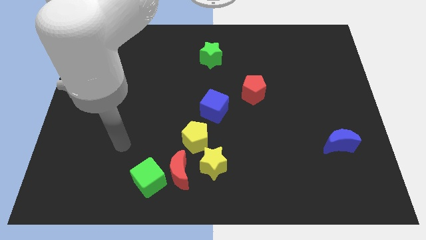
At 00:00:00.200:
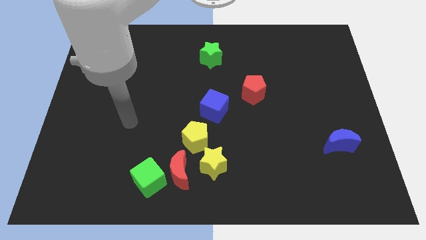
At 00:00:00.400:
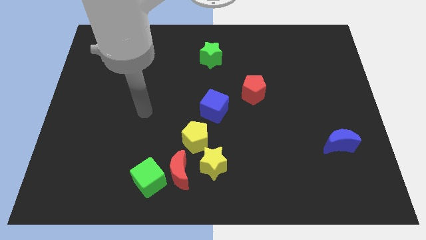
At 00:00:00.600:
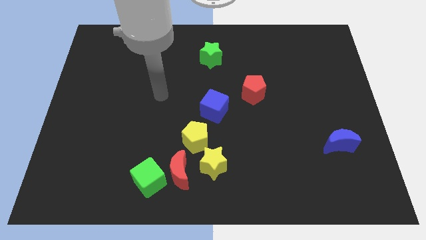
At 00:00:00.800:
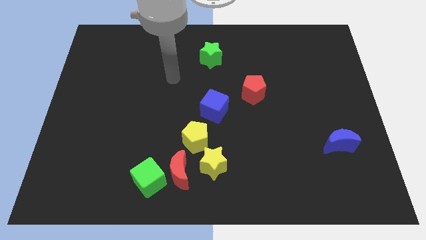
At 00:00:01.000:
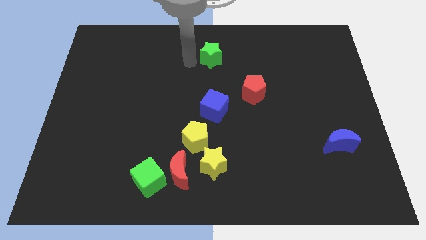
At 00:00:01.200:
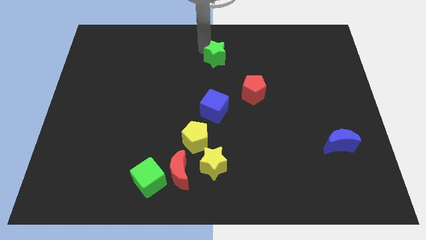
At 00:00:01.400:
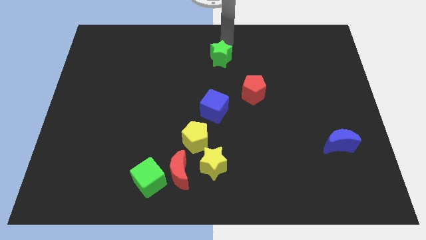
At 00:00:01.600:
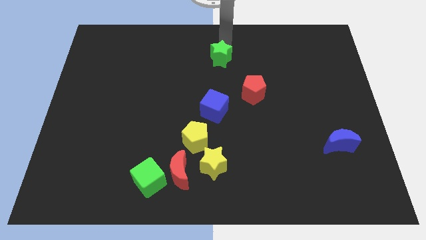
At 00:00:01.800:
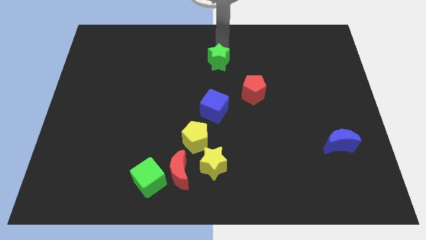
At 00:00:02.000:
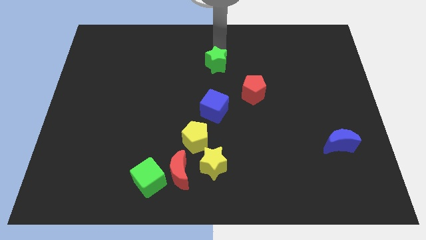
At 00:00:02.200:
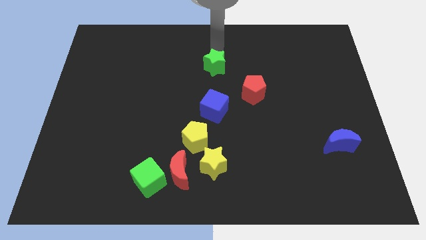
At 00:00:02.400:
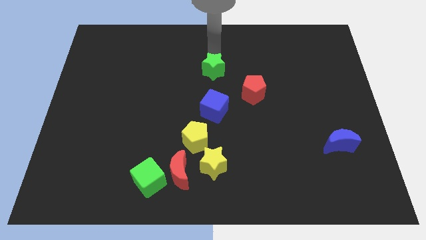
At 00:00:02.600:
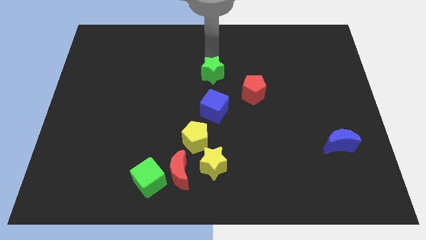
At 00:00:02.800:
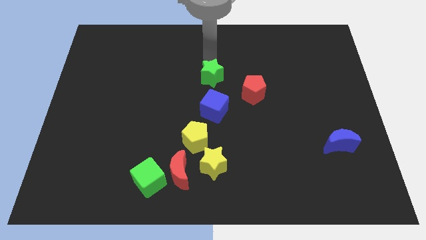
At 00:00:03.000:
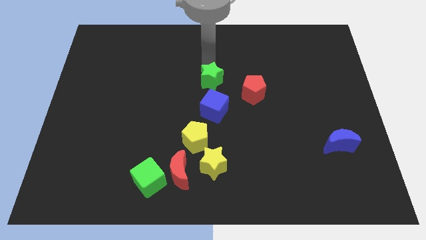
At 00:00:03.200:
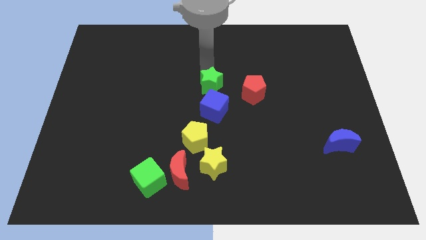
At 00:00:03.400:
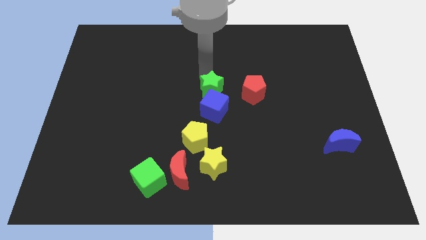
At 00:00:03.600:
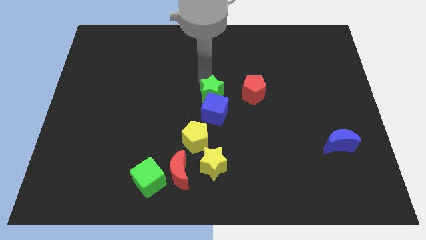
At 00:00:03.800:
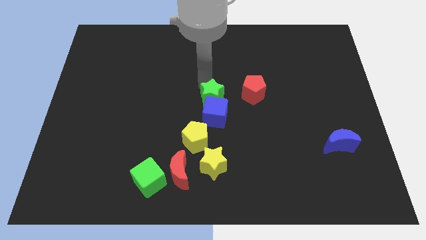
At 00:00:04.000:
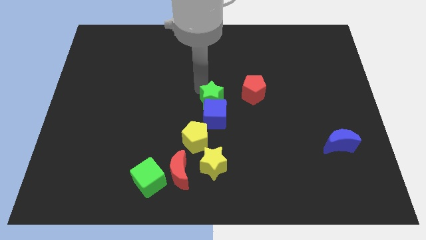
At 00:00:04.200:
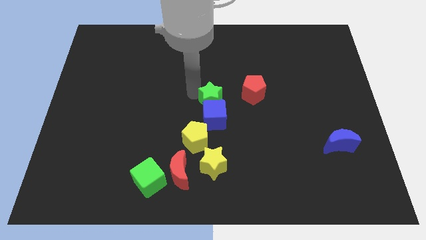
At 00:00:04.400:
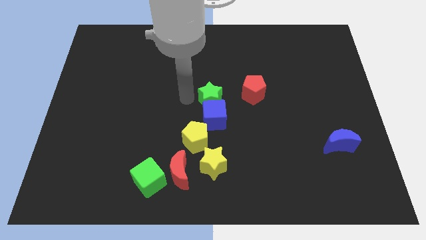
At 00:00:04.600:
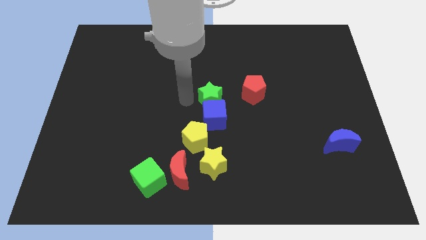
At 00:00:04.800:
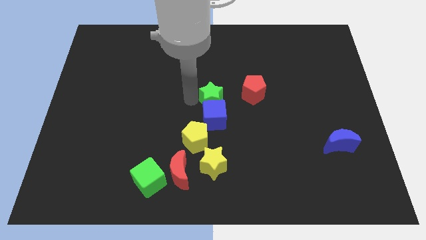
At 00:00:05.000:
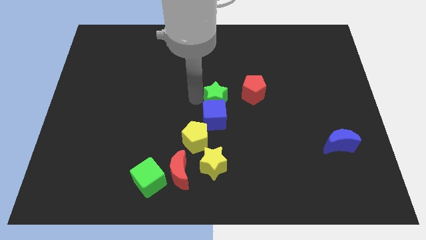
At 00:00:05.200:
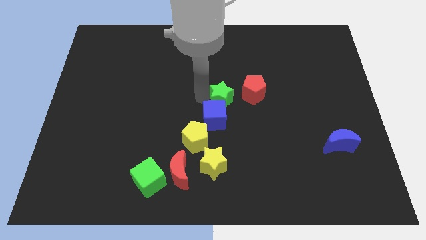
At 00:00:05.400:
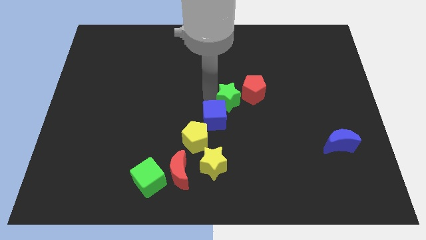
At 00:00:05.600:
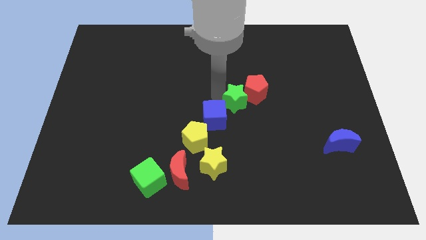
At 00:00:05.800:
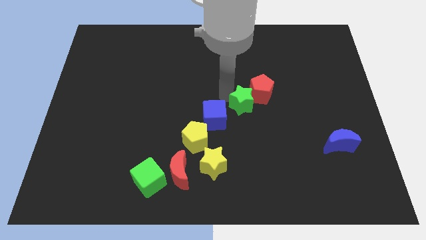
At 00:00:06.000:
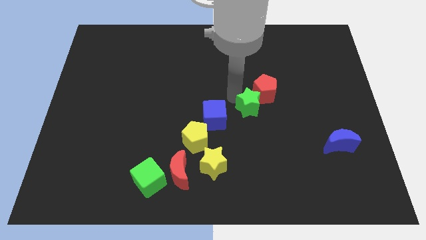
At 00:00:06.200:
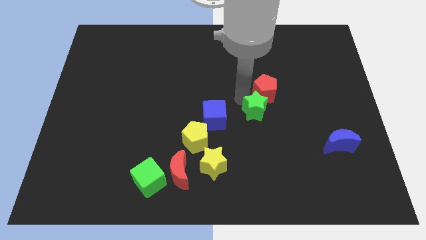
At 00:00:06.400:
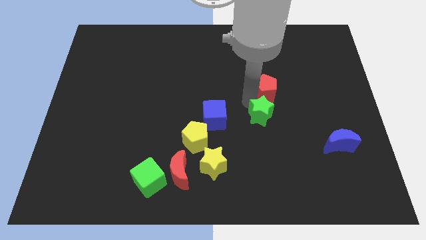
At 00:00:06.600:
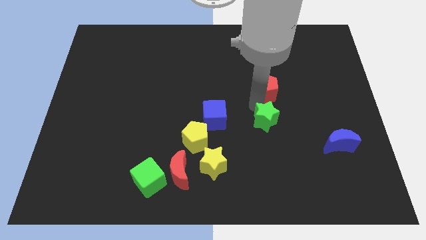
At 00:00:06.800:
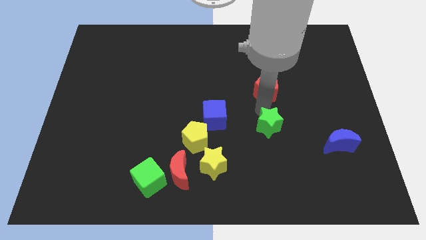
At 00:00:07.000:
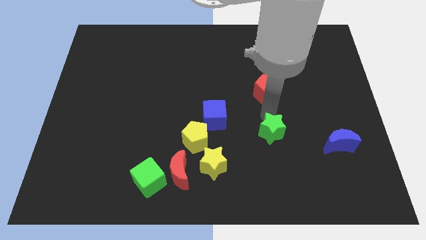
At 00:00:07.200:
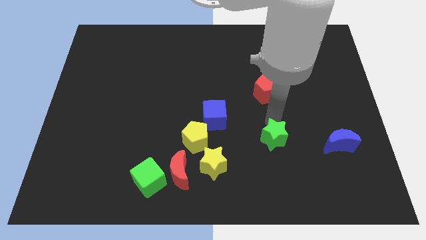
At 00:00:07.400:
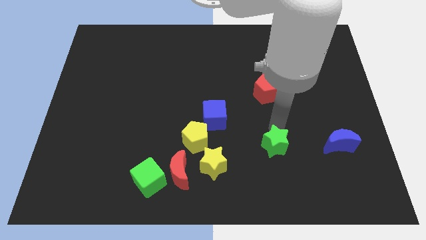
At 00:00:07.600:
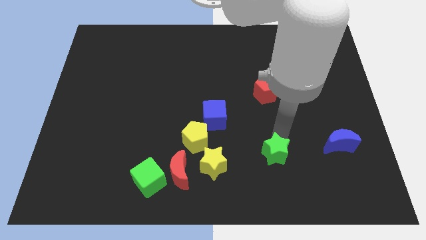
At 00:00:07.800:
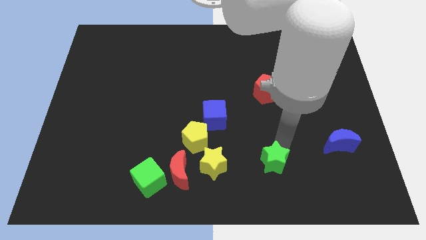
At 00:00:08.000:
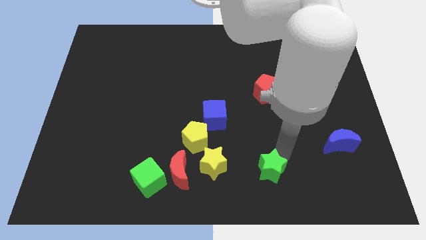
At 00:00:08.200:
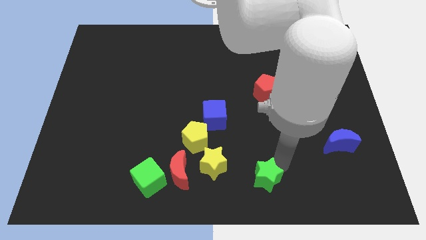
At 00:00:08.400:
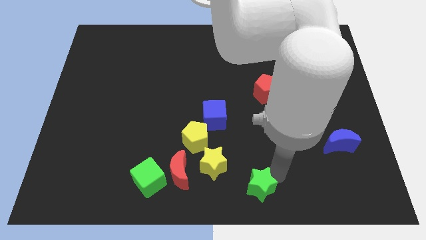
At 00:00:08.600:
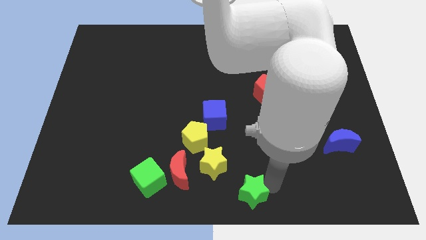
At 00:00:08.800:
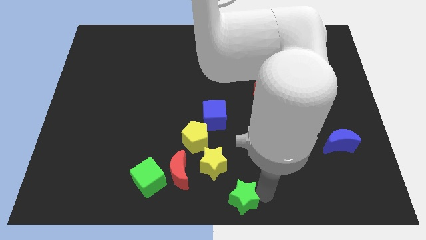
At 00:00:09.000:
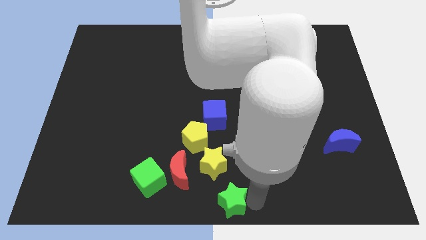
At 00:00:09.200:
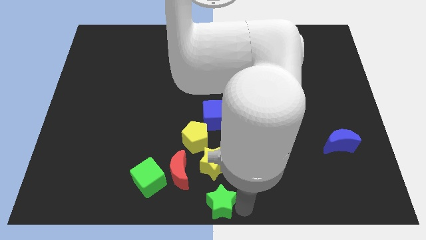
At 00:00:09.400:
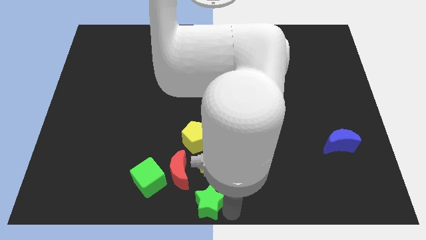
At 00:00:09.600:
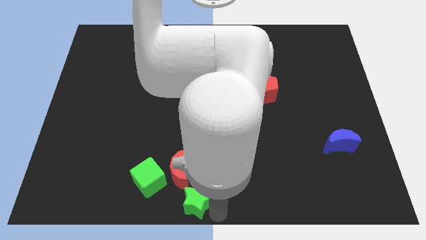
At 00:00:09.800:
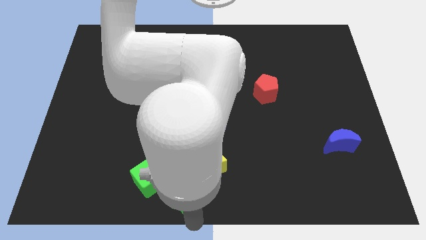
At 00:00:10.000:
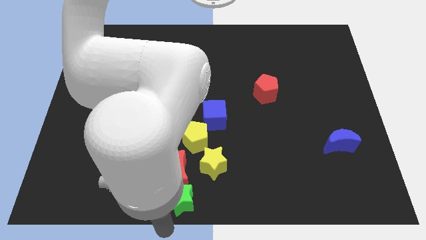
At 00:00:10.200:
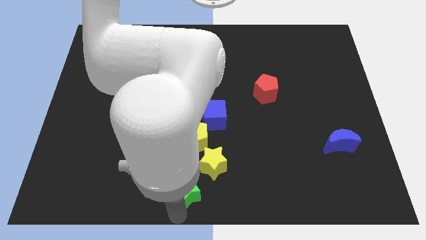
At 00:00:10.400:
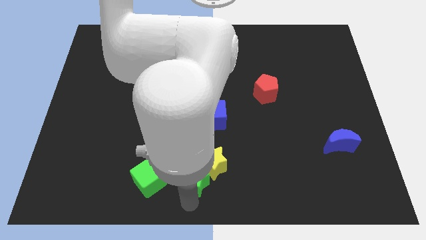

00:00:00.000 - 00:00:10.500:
put the green star next to the yellow star

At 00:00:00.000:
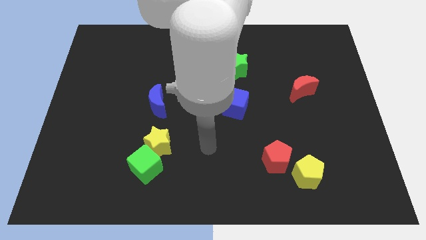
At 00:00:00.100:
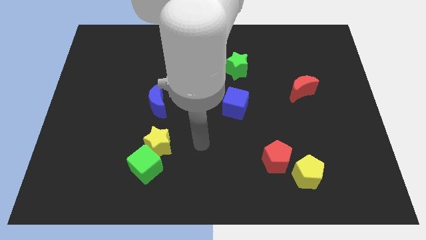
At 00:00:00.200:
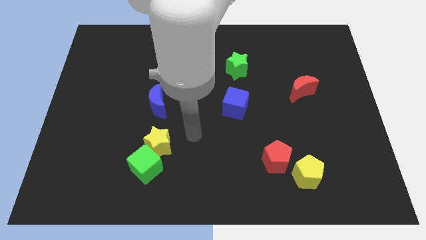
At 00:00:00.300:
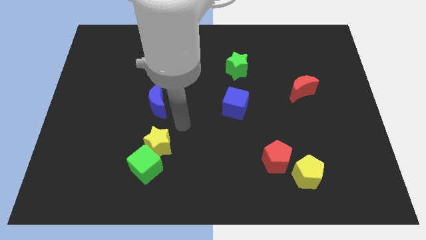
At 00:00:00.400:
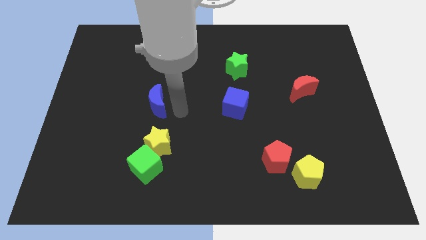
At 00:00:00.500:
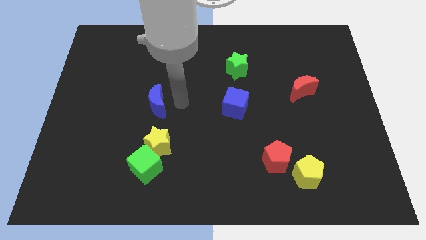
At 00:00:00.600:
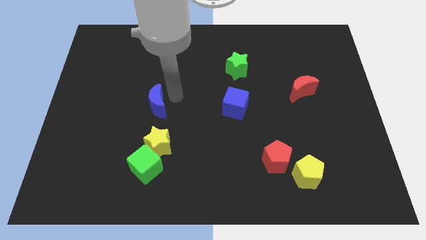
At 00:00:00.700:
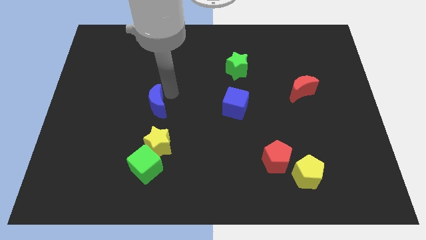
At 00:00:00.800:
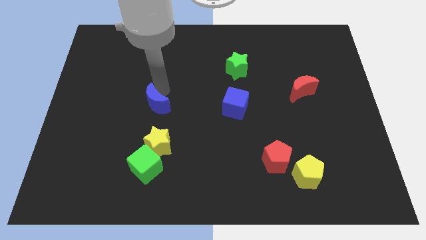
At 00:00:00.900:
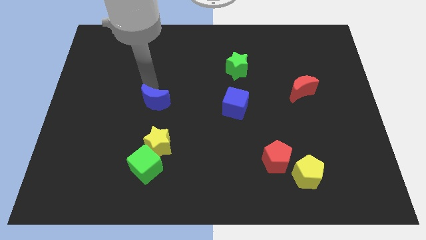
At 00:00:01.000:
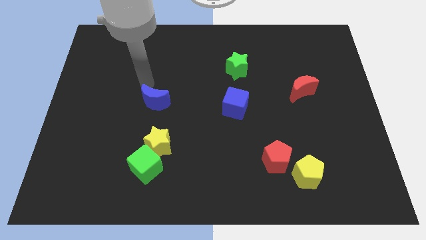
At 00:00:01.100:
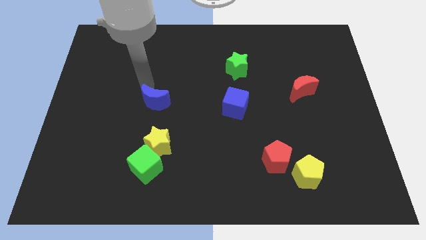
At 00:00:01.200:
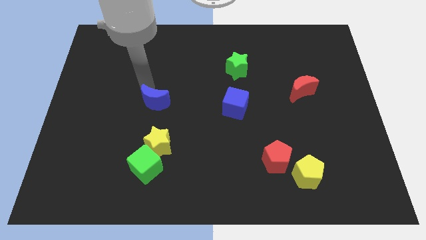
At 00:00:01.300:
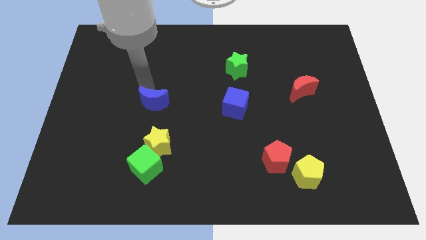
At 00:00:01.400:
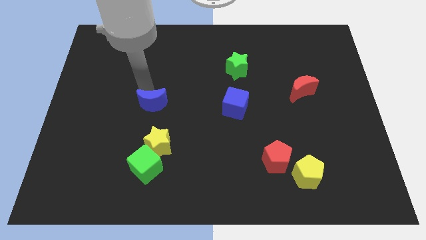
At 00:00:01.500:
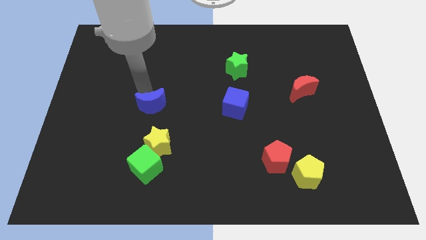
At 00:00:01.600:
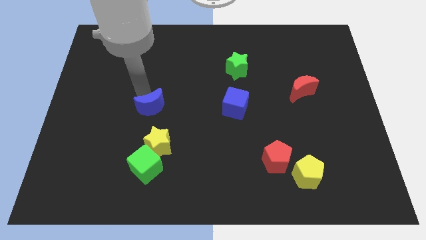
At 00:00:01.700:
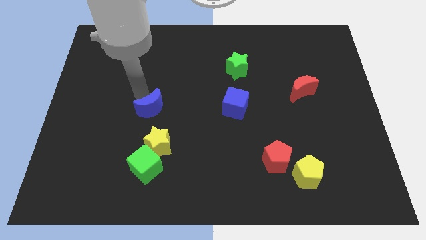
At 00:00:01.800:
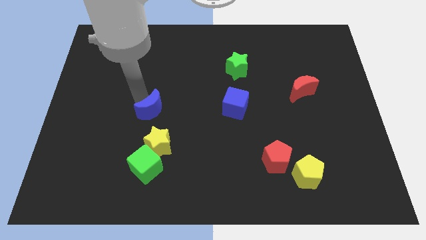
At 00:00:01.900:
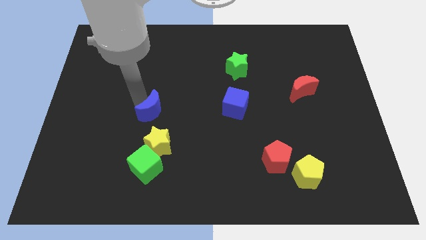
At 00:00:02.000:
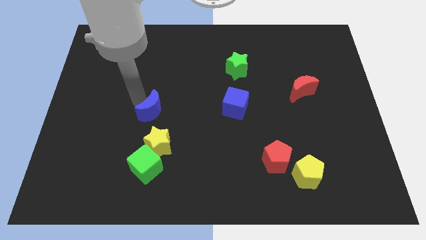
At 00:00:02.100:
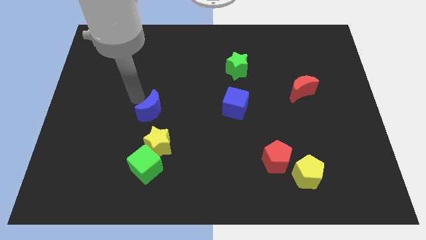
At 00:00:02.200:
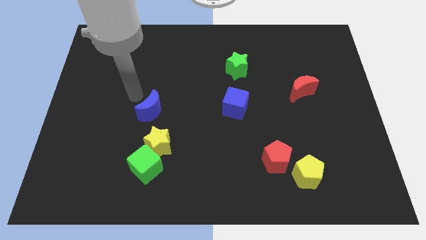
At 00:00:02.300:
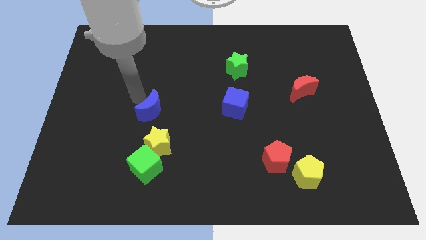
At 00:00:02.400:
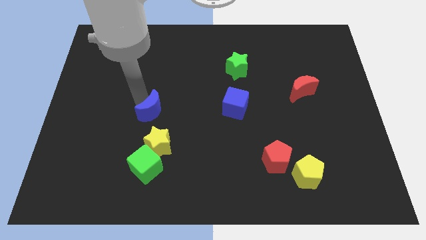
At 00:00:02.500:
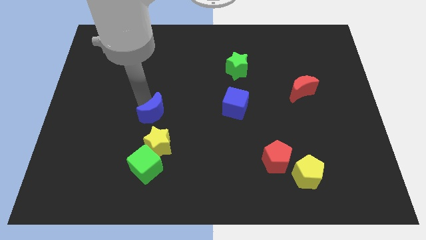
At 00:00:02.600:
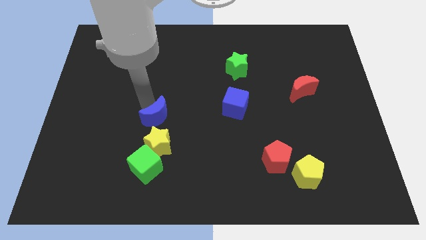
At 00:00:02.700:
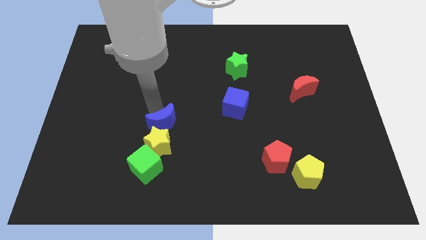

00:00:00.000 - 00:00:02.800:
move the blue moon close to the yellow star
